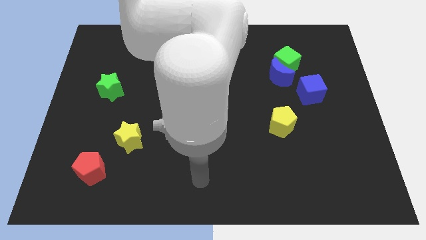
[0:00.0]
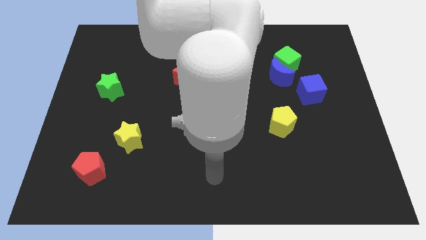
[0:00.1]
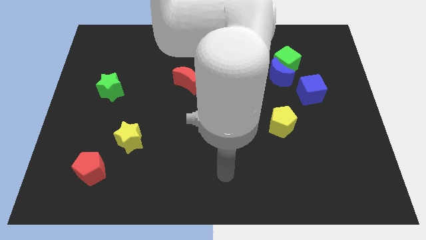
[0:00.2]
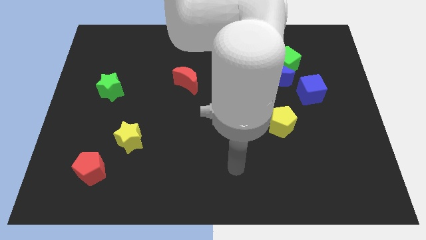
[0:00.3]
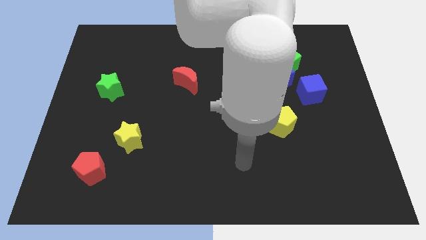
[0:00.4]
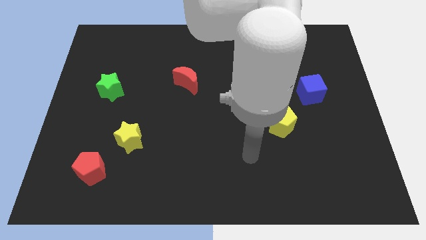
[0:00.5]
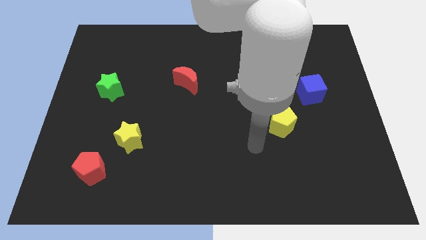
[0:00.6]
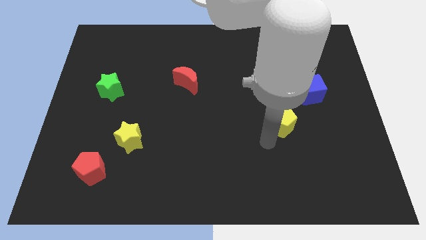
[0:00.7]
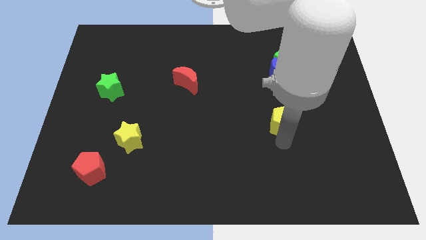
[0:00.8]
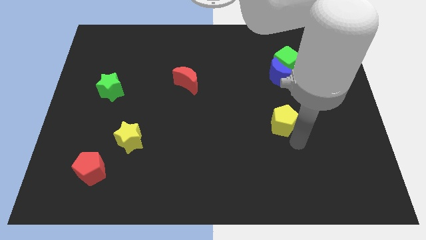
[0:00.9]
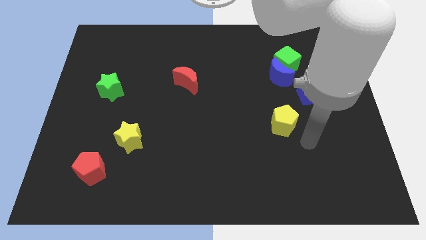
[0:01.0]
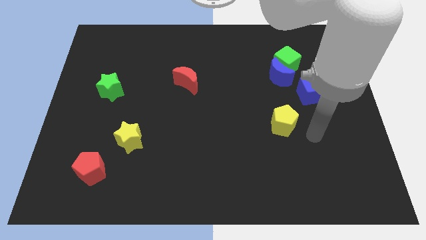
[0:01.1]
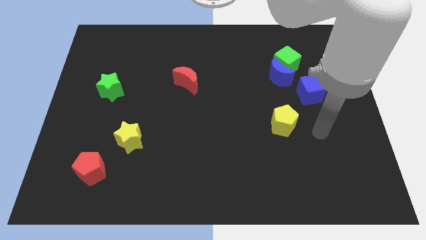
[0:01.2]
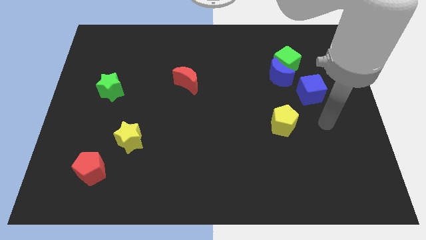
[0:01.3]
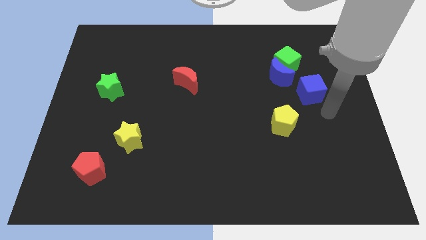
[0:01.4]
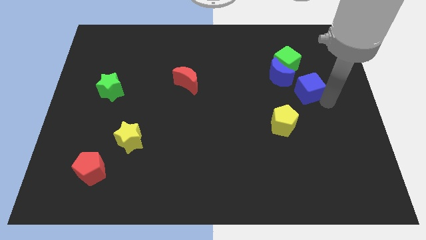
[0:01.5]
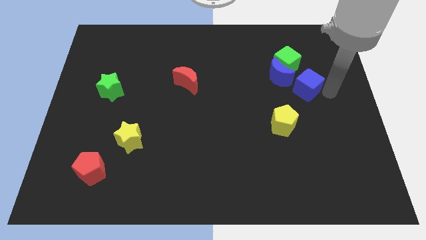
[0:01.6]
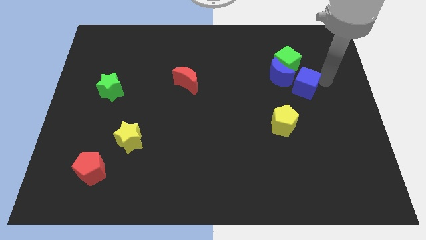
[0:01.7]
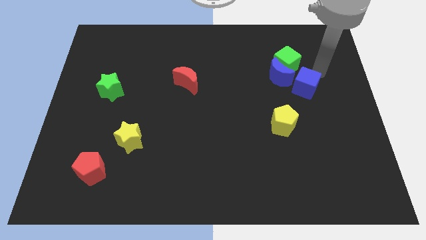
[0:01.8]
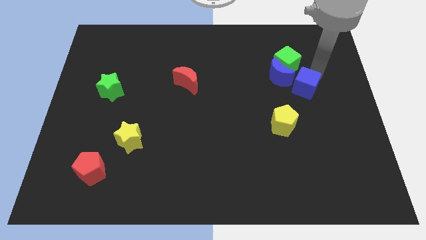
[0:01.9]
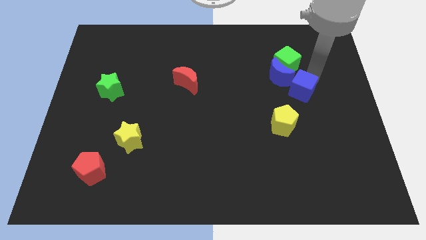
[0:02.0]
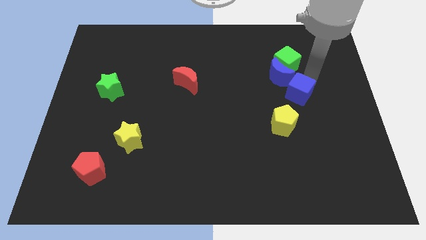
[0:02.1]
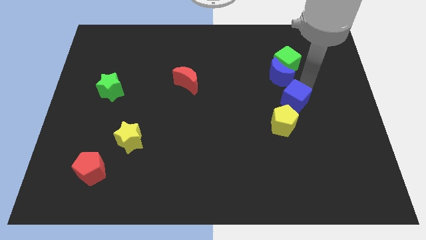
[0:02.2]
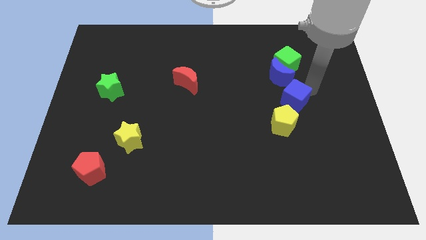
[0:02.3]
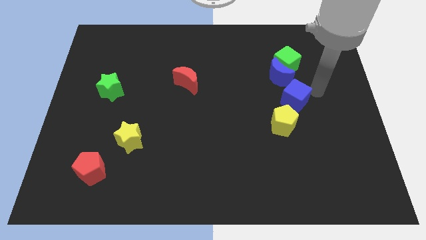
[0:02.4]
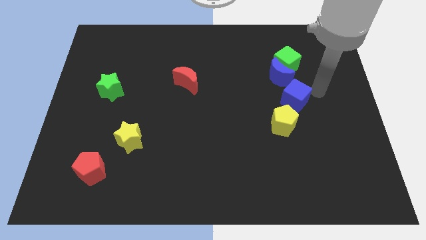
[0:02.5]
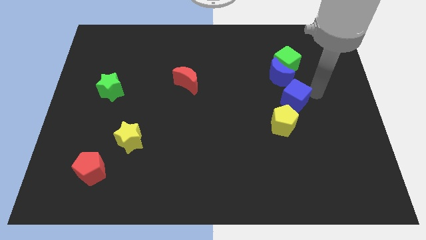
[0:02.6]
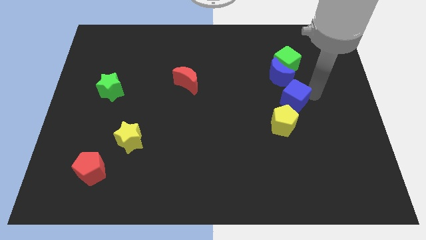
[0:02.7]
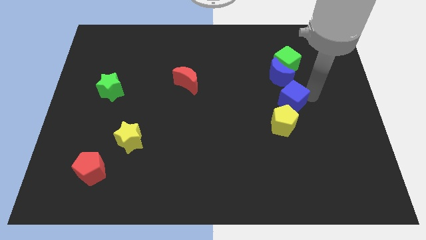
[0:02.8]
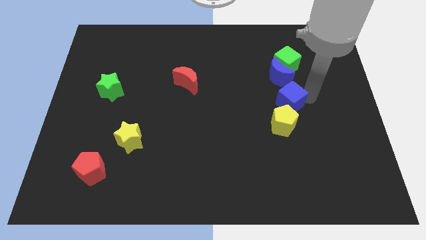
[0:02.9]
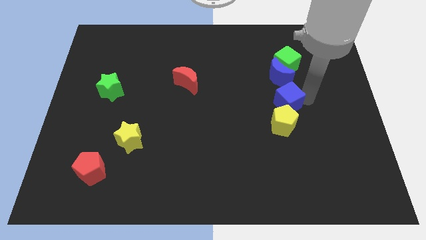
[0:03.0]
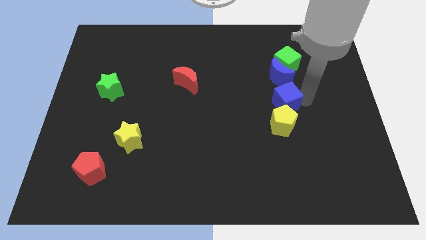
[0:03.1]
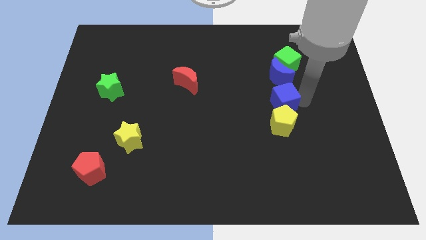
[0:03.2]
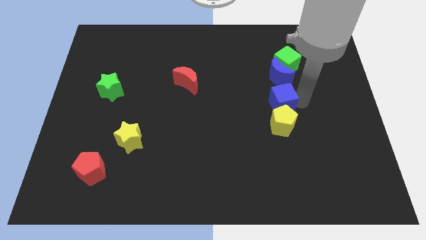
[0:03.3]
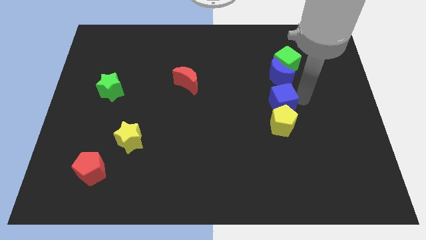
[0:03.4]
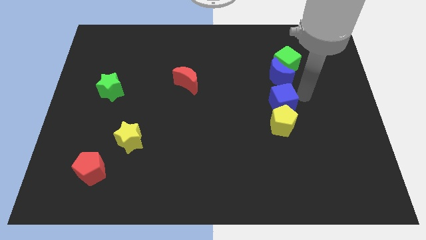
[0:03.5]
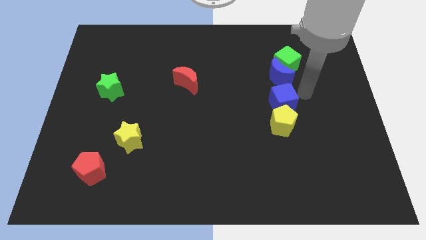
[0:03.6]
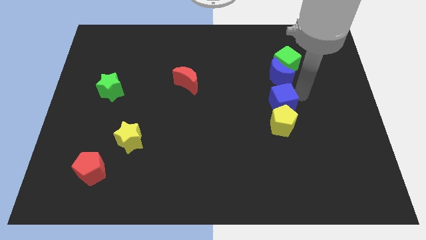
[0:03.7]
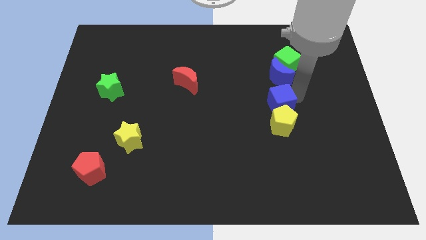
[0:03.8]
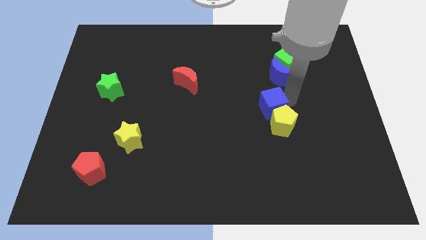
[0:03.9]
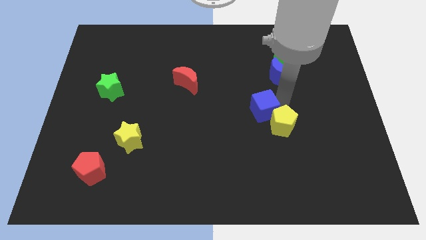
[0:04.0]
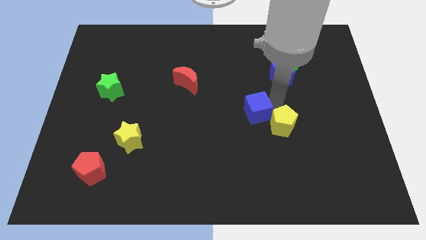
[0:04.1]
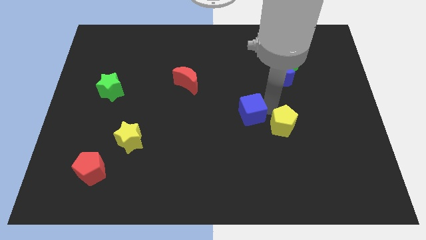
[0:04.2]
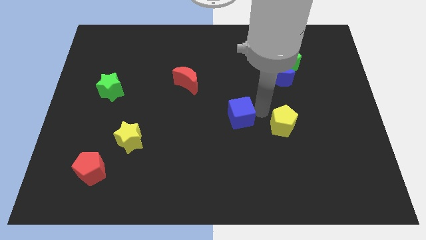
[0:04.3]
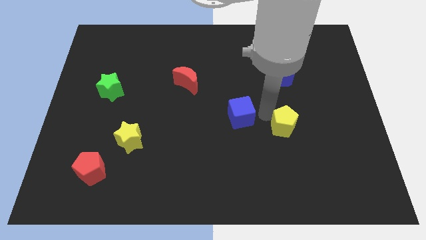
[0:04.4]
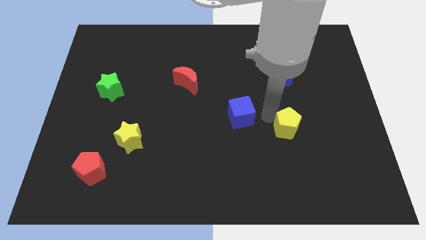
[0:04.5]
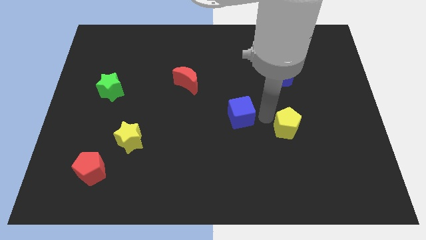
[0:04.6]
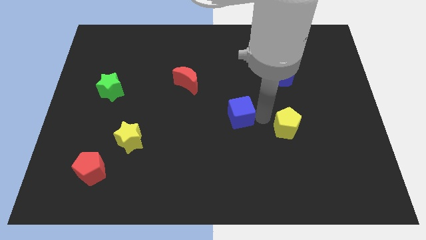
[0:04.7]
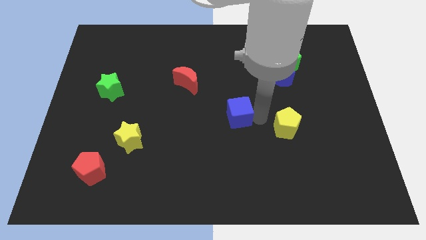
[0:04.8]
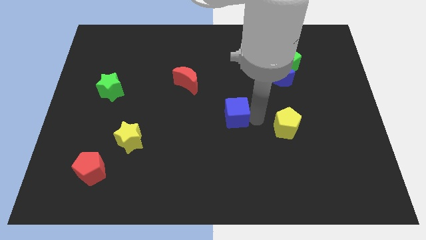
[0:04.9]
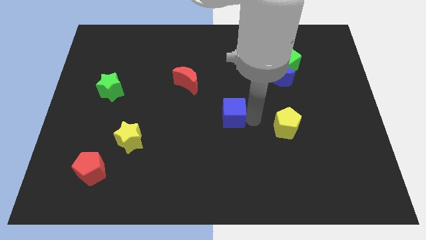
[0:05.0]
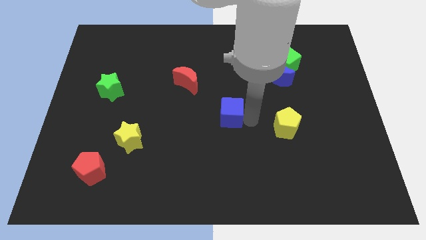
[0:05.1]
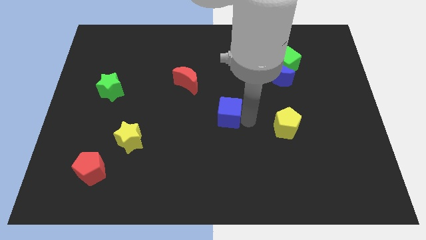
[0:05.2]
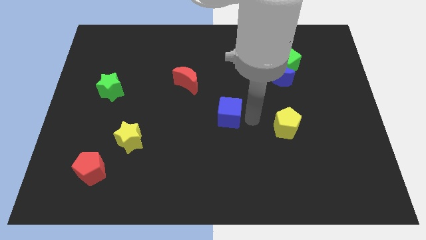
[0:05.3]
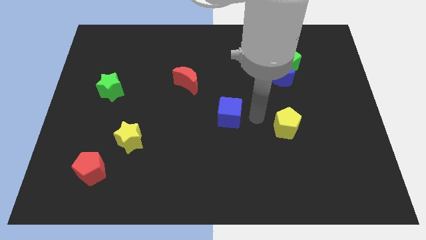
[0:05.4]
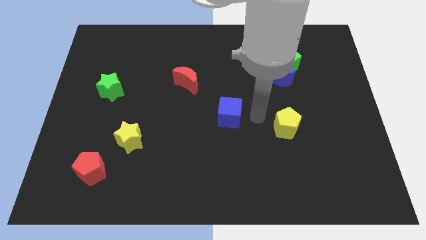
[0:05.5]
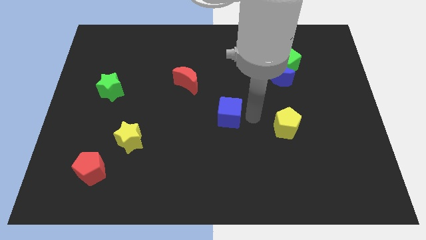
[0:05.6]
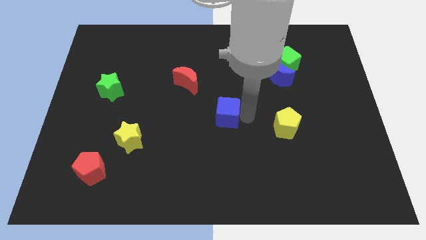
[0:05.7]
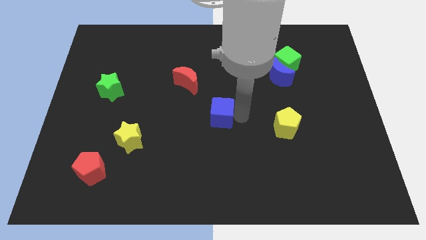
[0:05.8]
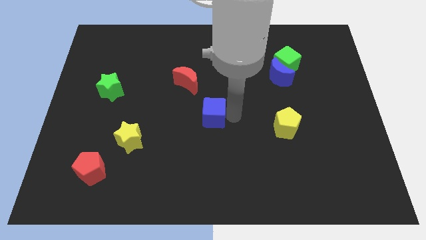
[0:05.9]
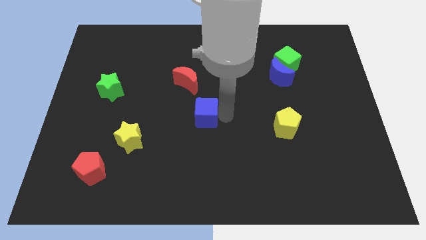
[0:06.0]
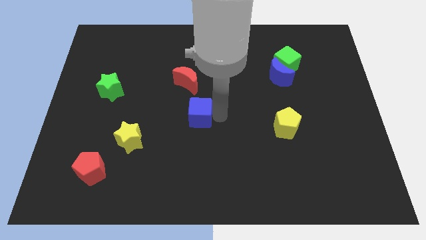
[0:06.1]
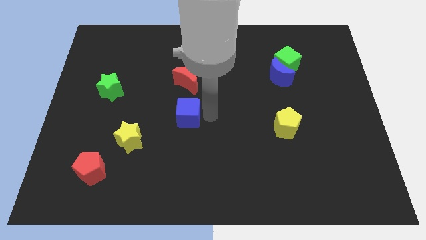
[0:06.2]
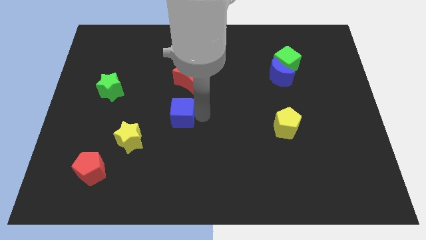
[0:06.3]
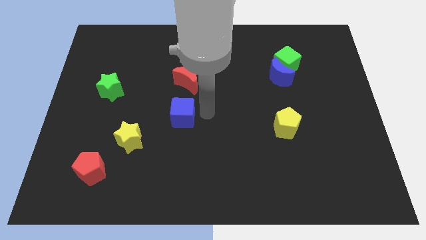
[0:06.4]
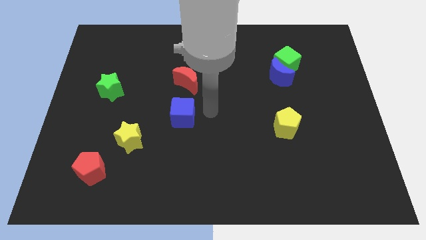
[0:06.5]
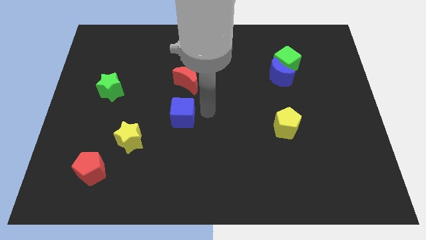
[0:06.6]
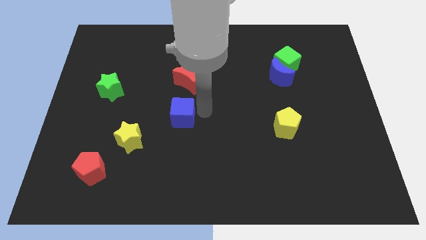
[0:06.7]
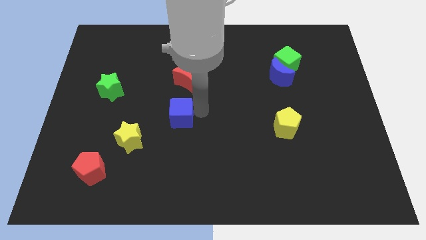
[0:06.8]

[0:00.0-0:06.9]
put the blue cube to the top right of the yellow star
